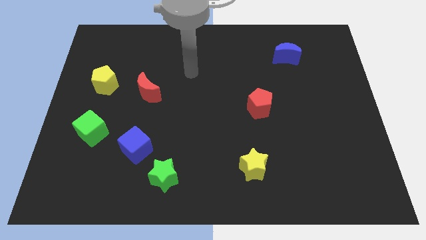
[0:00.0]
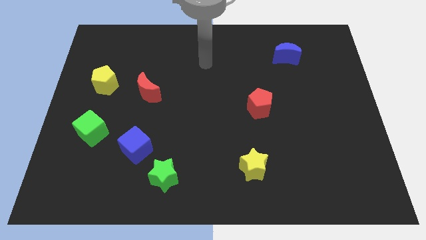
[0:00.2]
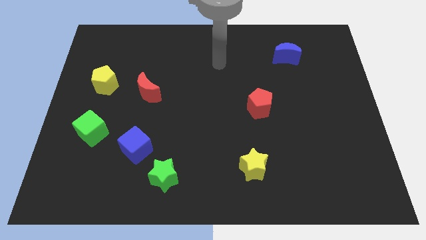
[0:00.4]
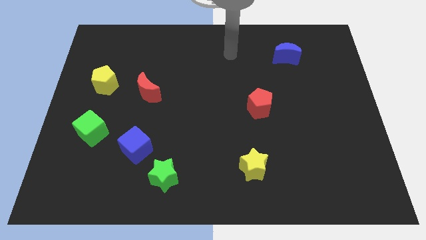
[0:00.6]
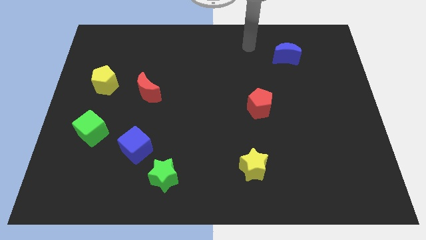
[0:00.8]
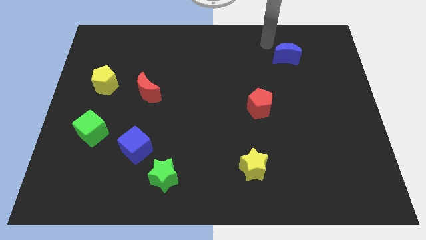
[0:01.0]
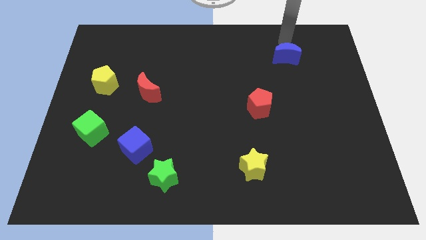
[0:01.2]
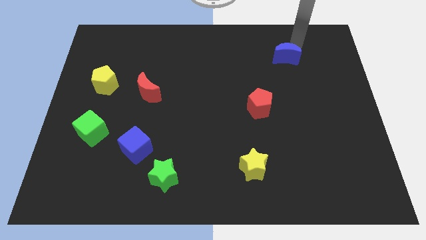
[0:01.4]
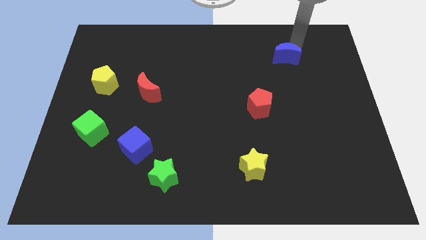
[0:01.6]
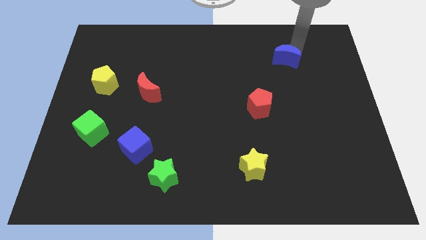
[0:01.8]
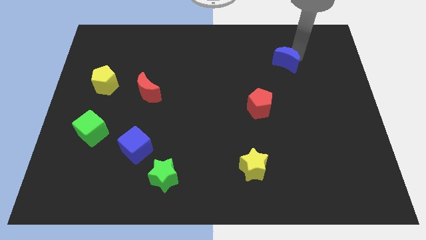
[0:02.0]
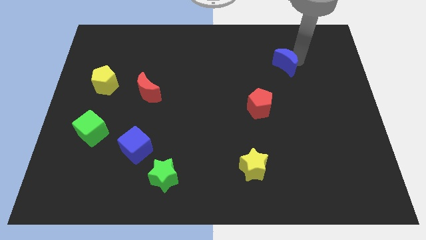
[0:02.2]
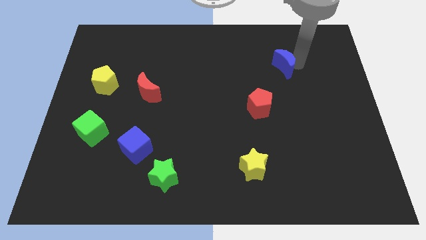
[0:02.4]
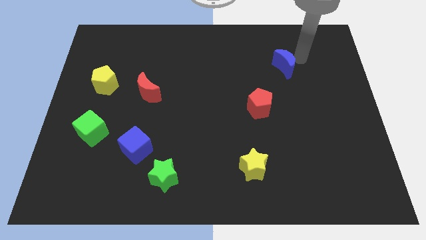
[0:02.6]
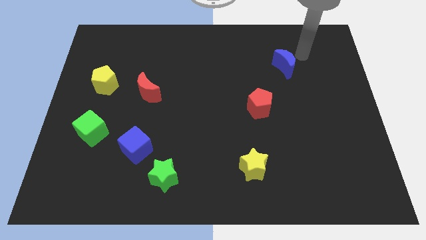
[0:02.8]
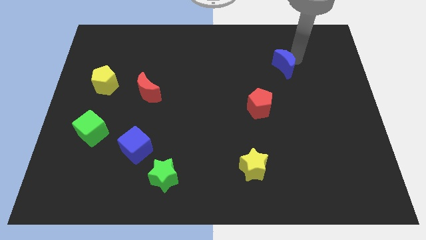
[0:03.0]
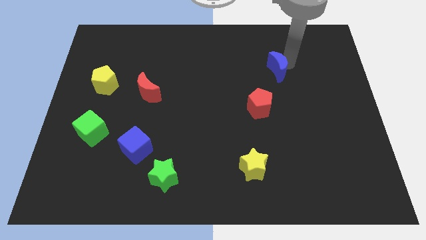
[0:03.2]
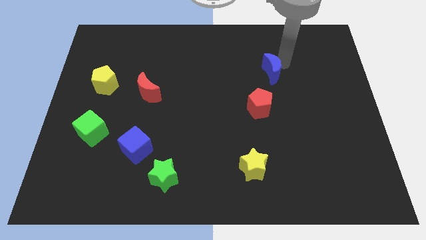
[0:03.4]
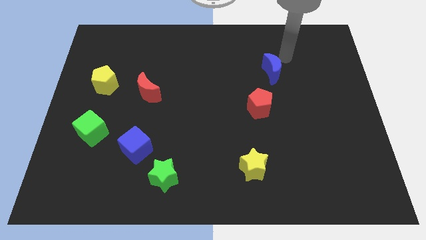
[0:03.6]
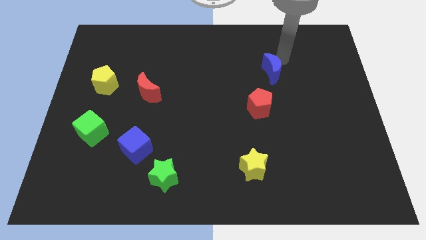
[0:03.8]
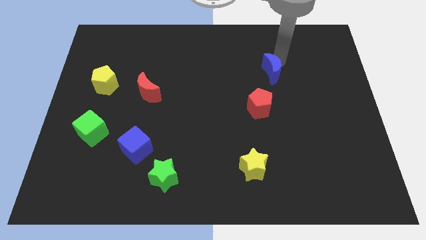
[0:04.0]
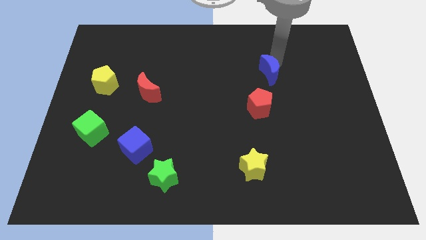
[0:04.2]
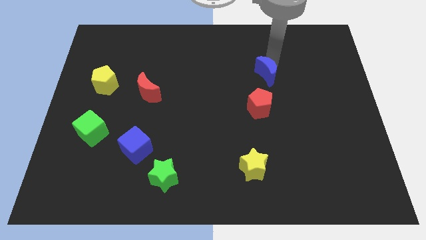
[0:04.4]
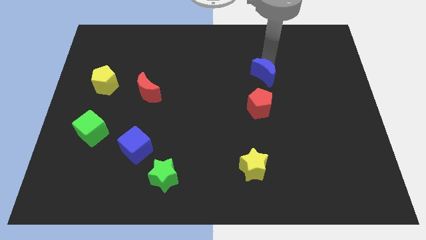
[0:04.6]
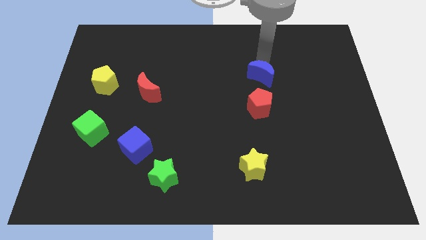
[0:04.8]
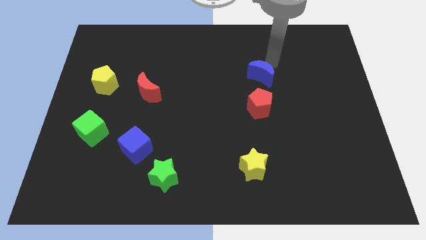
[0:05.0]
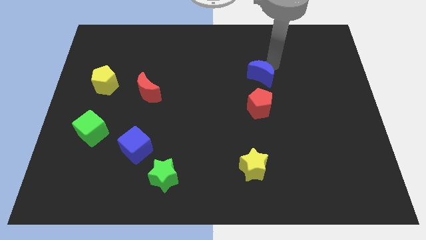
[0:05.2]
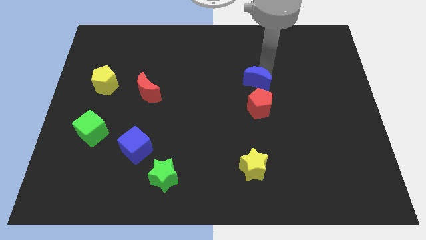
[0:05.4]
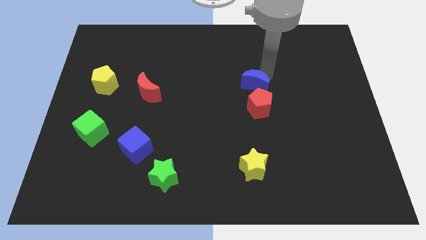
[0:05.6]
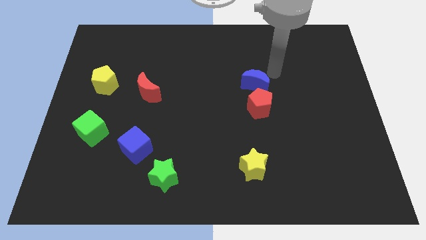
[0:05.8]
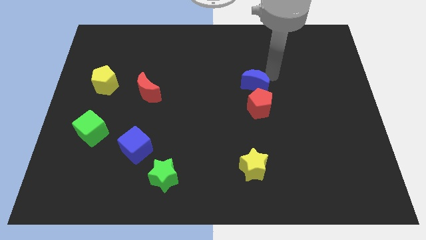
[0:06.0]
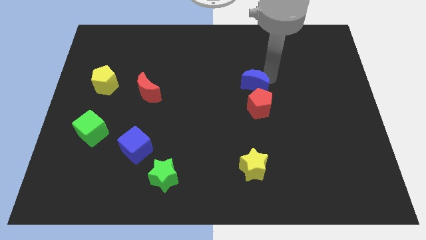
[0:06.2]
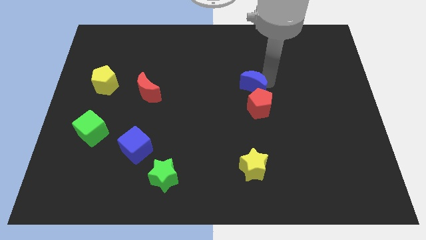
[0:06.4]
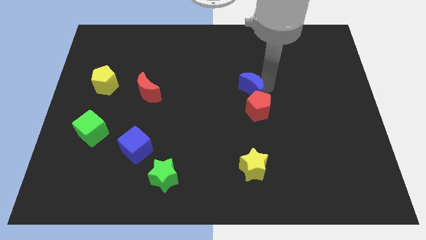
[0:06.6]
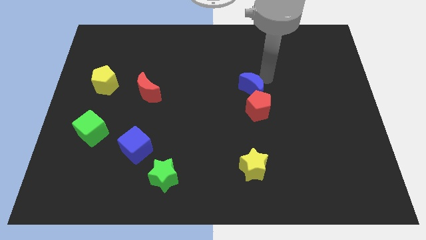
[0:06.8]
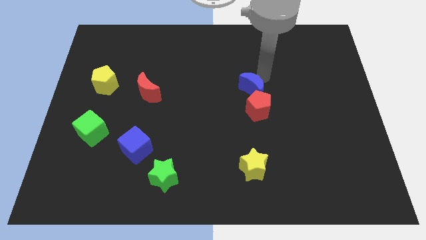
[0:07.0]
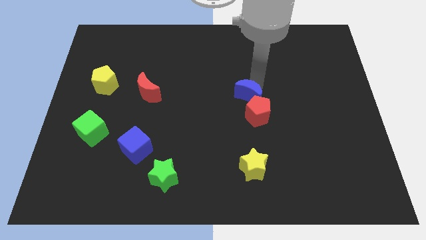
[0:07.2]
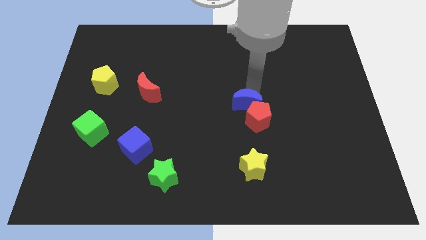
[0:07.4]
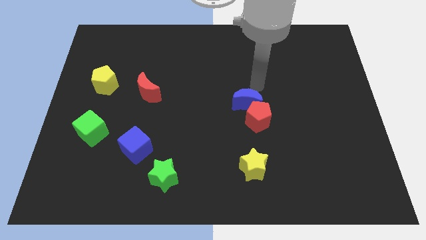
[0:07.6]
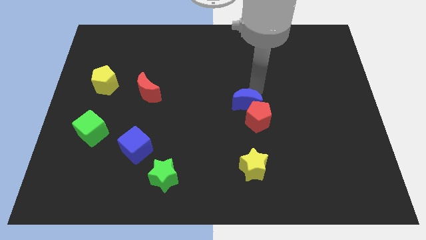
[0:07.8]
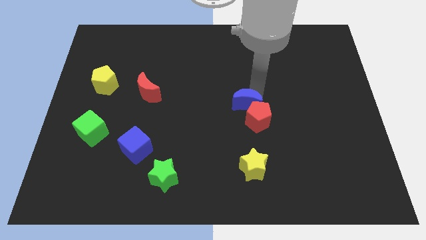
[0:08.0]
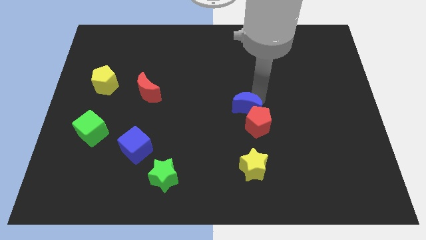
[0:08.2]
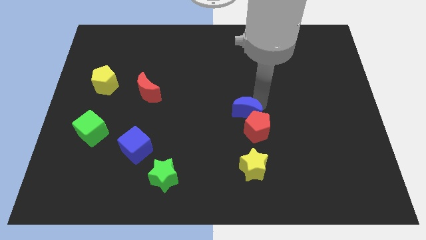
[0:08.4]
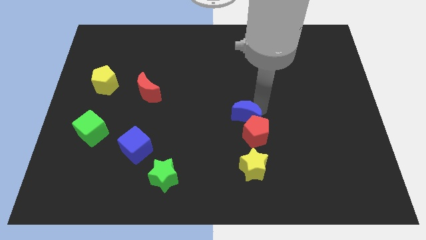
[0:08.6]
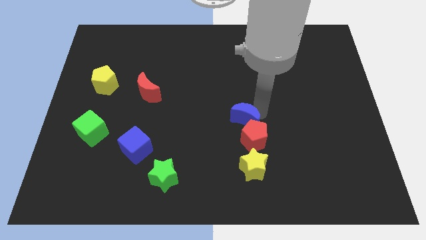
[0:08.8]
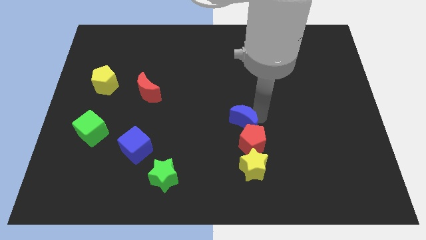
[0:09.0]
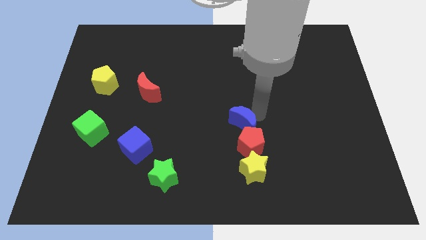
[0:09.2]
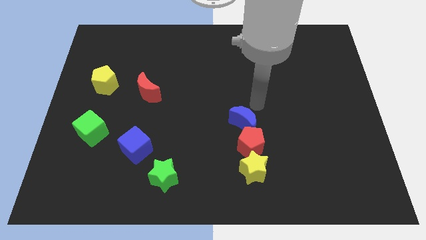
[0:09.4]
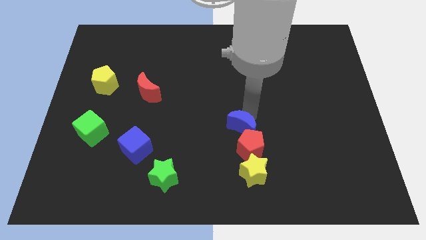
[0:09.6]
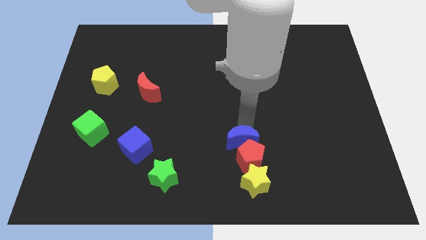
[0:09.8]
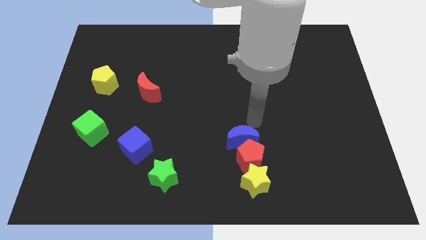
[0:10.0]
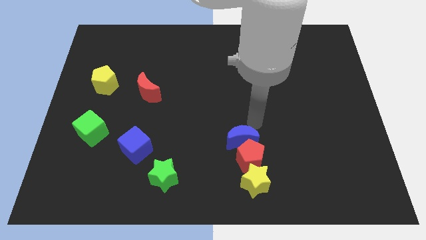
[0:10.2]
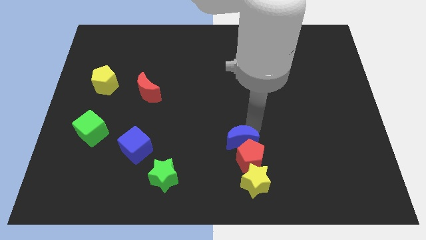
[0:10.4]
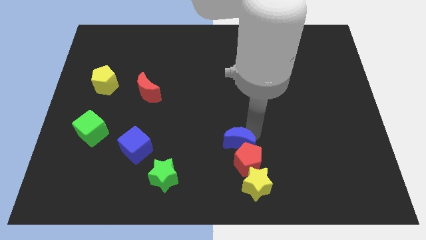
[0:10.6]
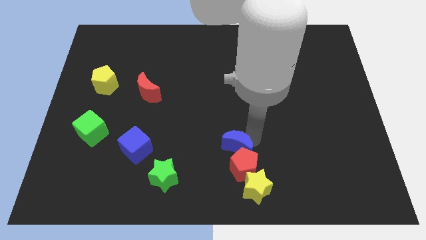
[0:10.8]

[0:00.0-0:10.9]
push the blue moon to the top left side of the yellow star

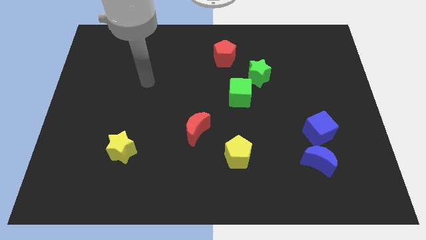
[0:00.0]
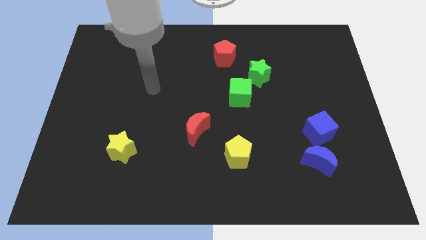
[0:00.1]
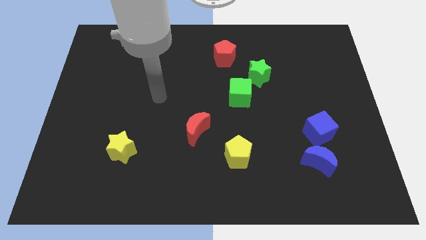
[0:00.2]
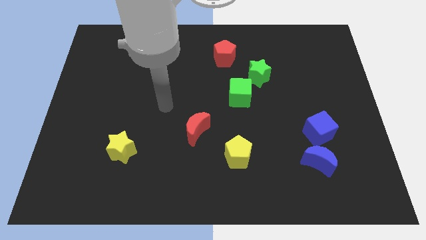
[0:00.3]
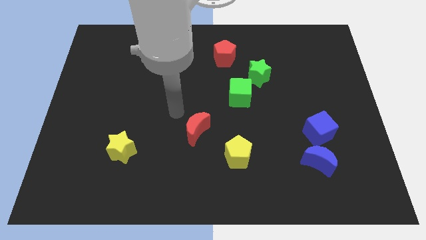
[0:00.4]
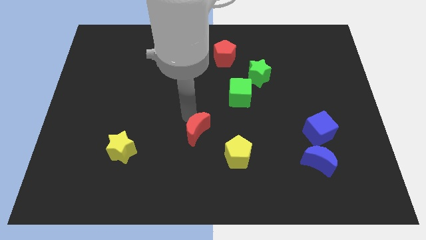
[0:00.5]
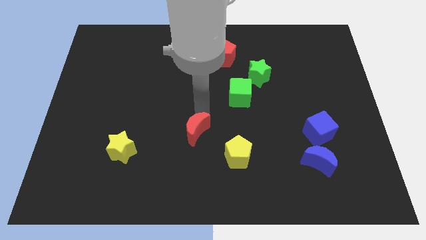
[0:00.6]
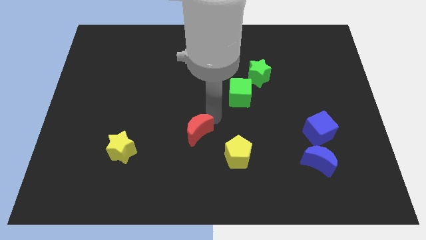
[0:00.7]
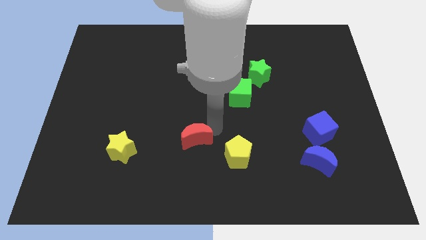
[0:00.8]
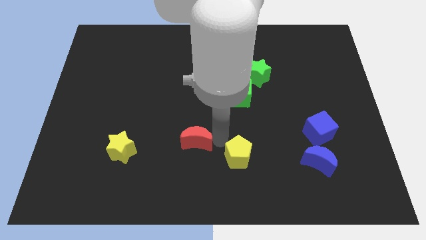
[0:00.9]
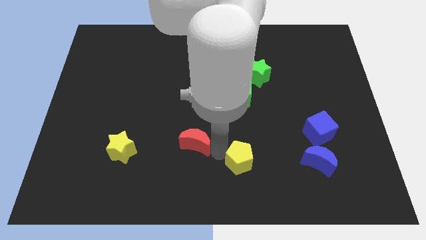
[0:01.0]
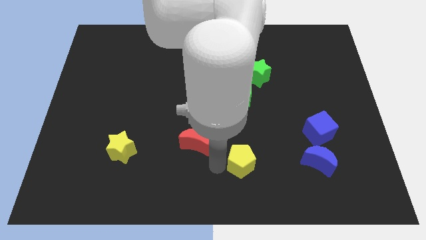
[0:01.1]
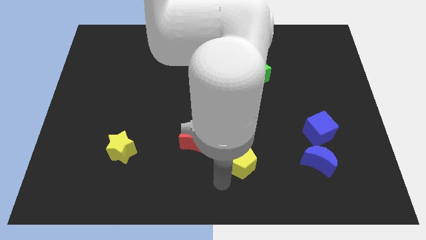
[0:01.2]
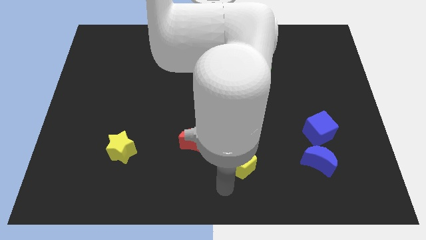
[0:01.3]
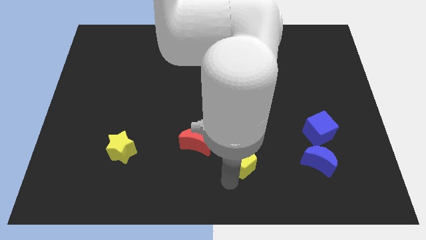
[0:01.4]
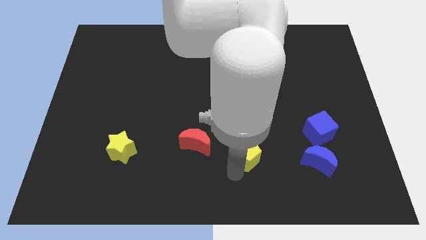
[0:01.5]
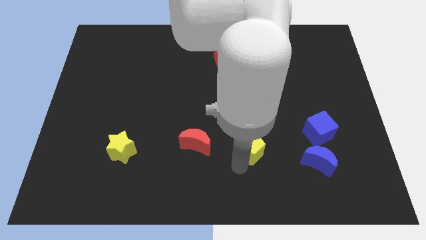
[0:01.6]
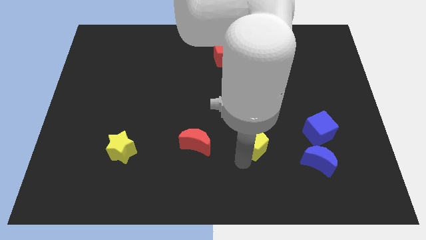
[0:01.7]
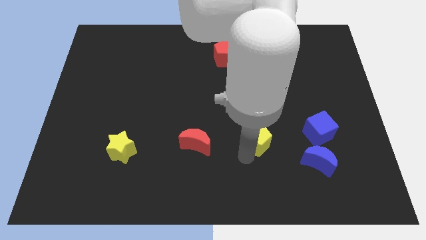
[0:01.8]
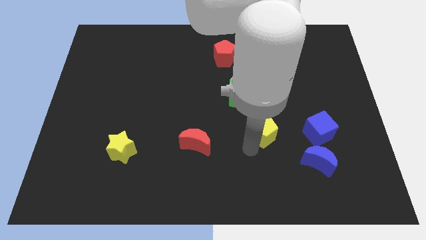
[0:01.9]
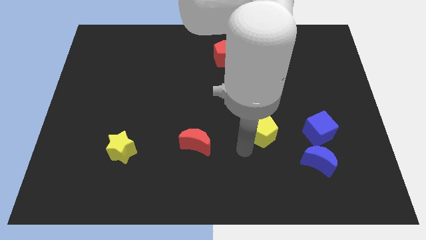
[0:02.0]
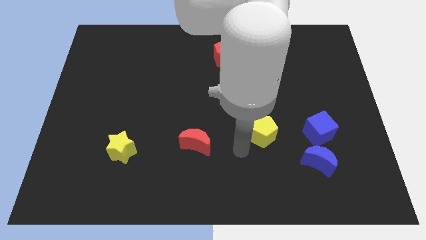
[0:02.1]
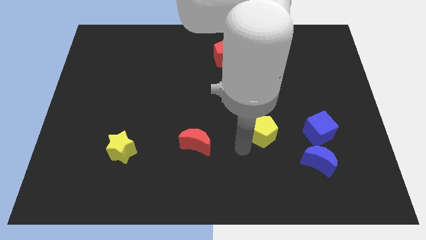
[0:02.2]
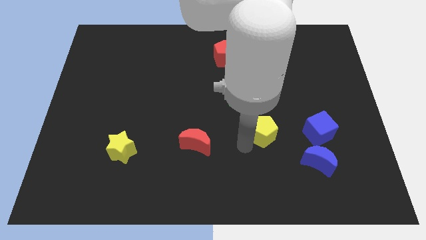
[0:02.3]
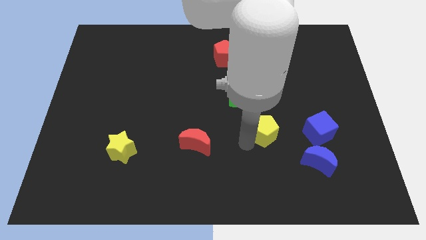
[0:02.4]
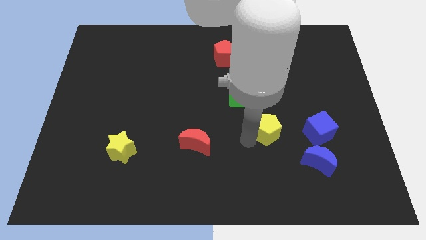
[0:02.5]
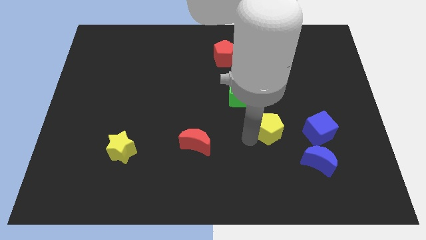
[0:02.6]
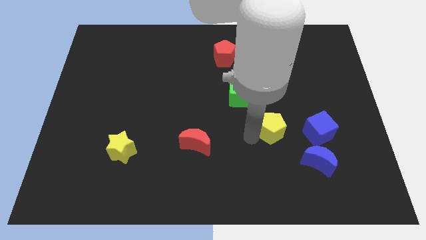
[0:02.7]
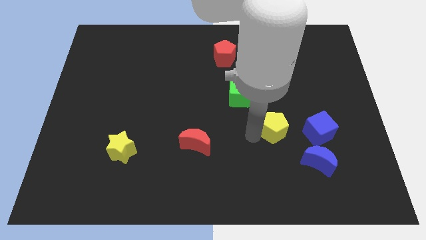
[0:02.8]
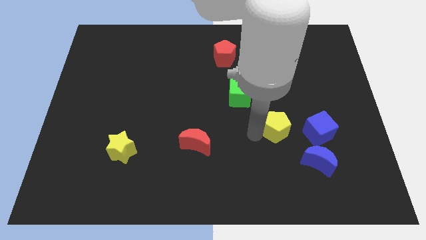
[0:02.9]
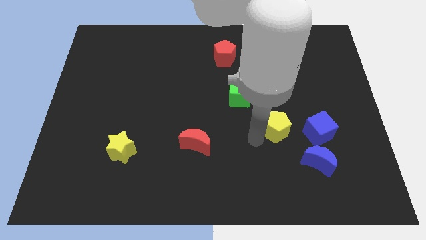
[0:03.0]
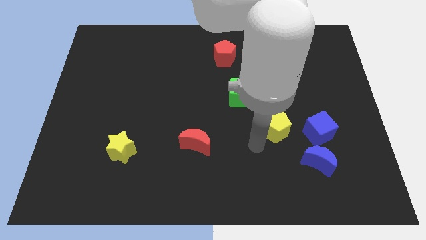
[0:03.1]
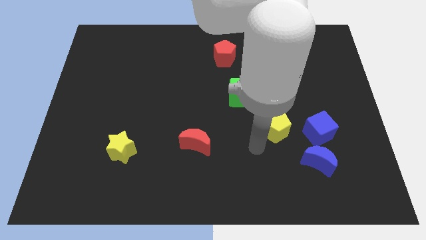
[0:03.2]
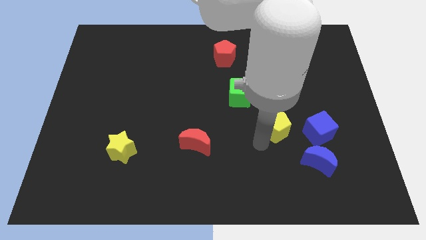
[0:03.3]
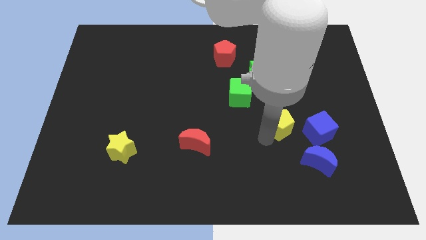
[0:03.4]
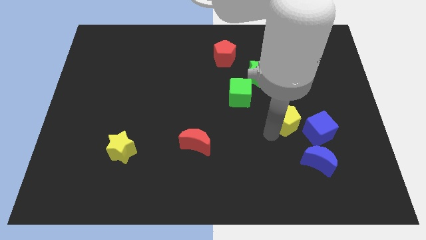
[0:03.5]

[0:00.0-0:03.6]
slide the yellow pentagon to the top left side of the blue cube
